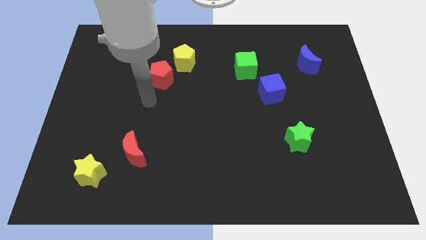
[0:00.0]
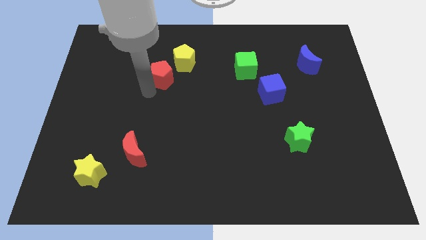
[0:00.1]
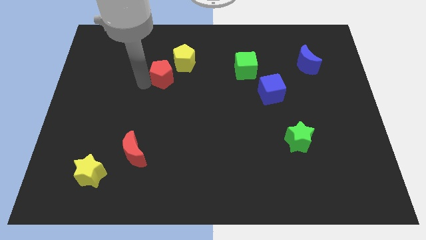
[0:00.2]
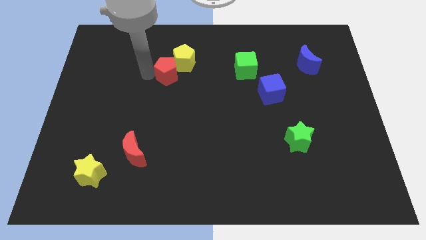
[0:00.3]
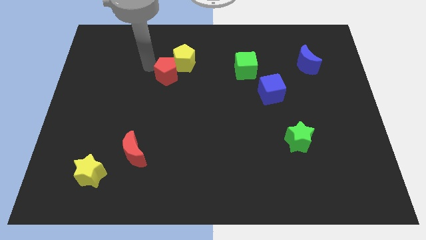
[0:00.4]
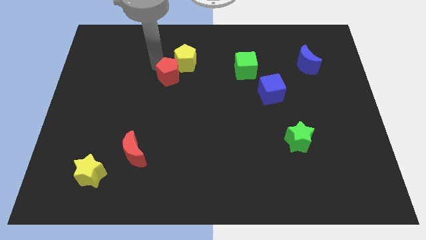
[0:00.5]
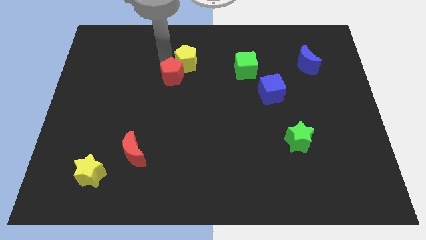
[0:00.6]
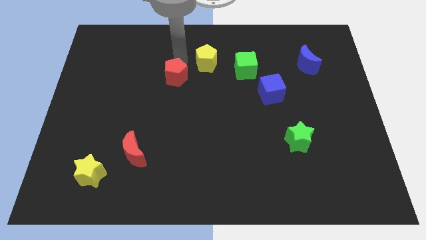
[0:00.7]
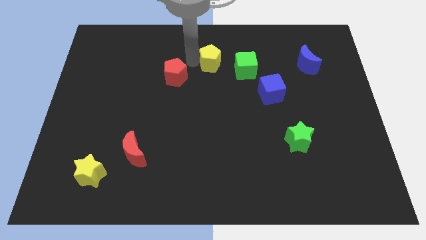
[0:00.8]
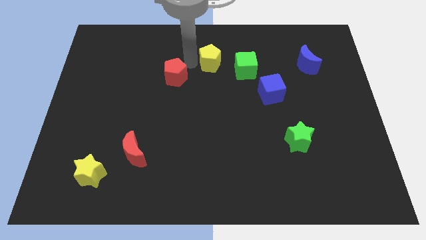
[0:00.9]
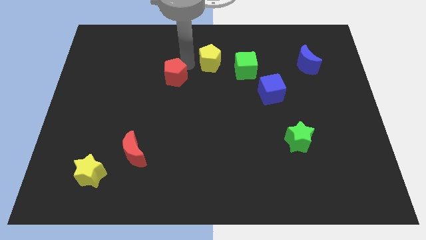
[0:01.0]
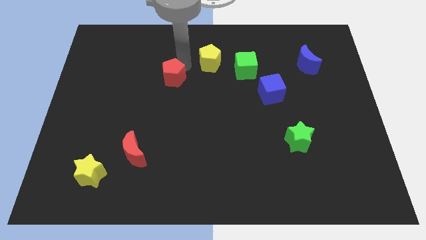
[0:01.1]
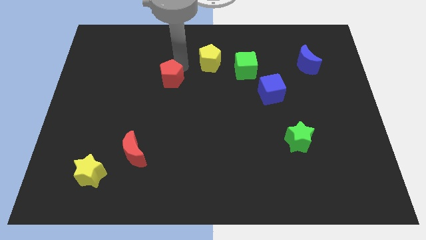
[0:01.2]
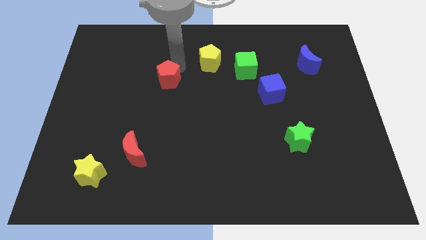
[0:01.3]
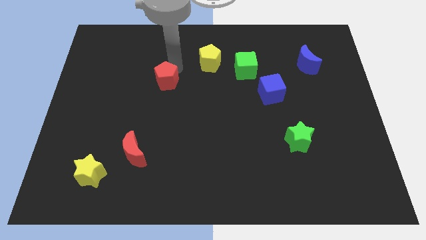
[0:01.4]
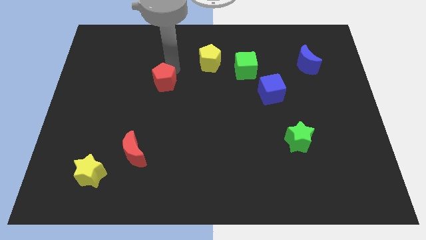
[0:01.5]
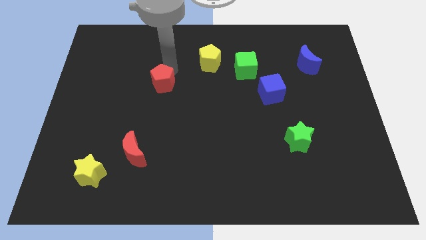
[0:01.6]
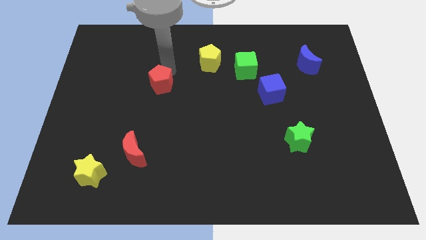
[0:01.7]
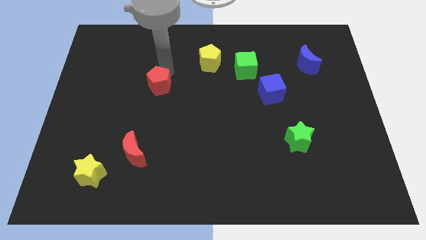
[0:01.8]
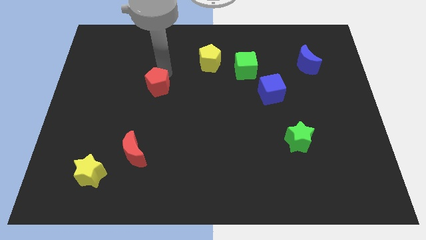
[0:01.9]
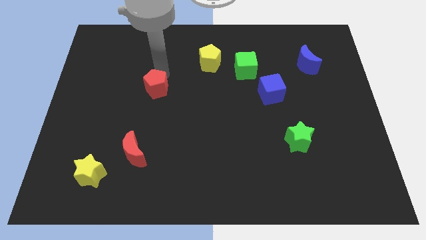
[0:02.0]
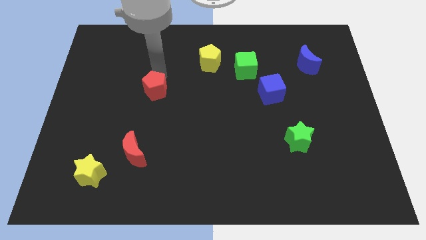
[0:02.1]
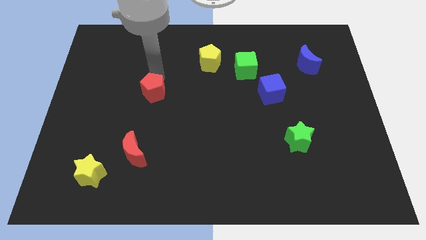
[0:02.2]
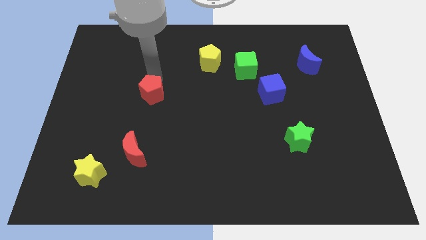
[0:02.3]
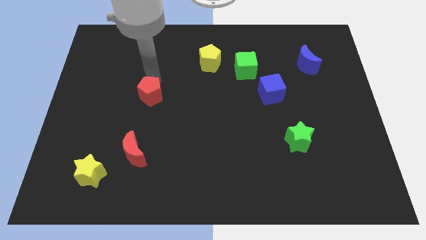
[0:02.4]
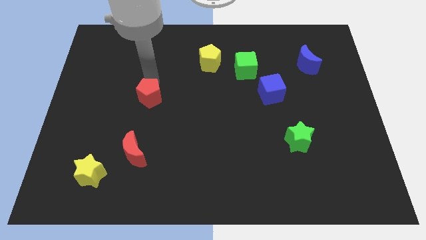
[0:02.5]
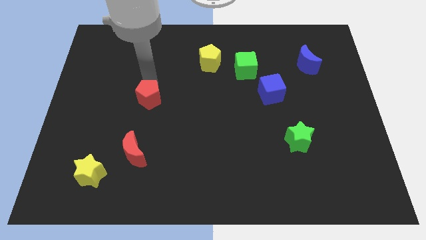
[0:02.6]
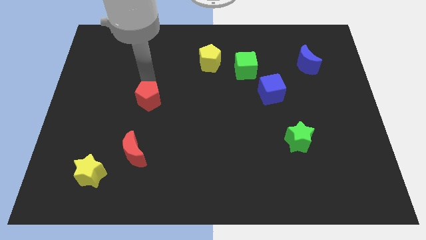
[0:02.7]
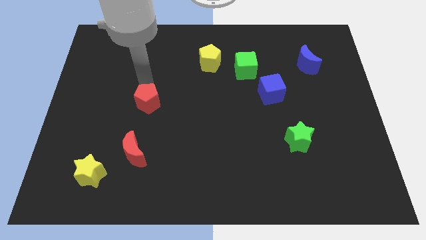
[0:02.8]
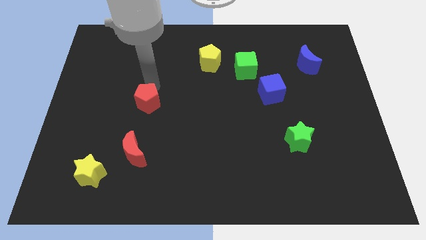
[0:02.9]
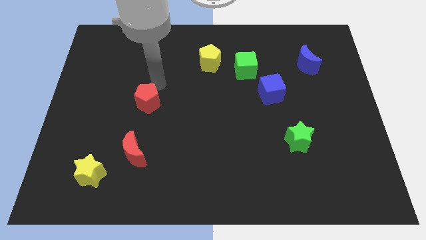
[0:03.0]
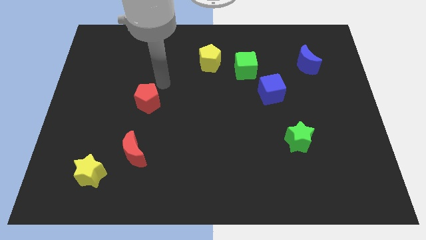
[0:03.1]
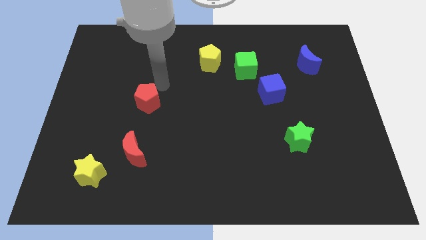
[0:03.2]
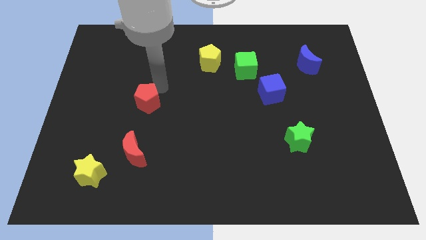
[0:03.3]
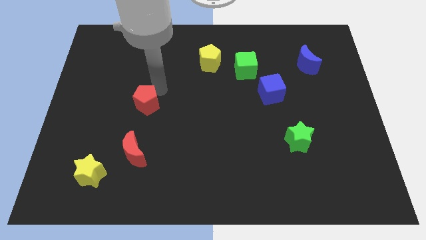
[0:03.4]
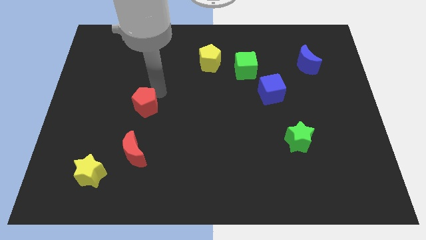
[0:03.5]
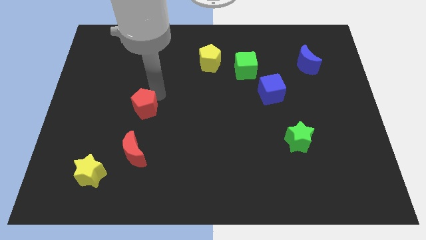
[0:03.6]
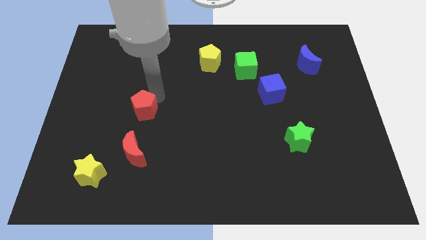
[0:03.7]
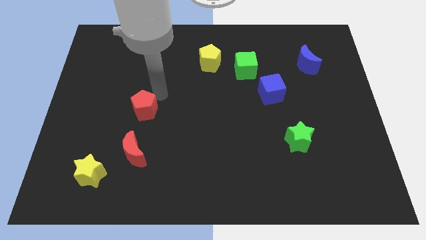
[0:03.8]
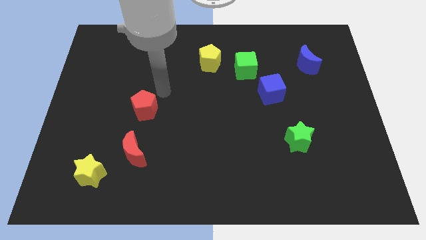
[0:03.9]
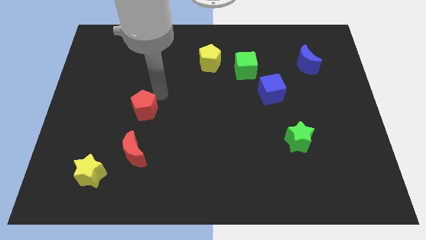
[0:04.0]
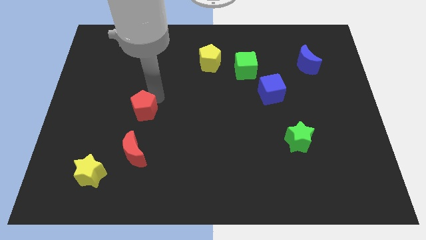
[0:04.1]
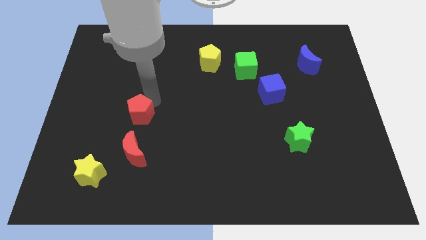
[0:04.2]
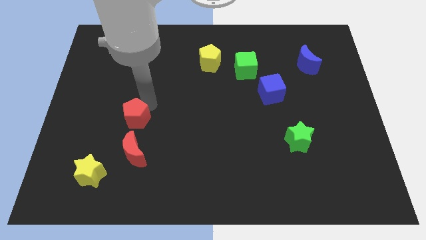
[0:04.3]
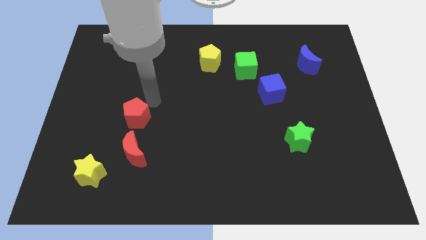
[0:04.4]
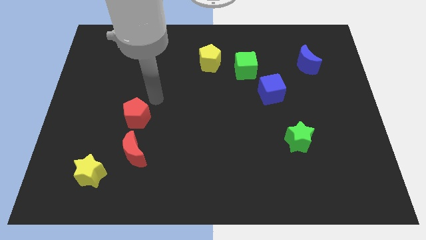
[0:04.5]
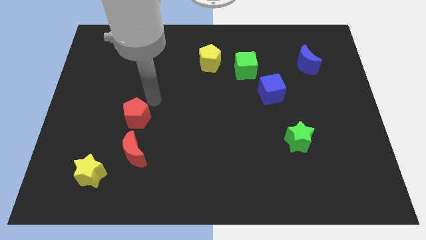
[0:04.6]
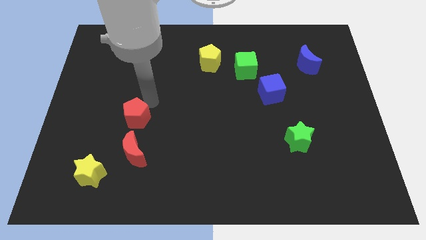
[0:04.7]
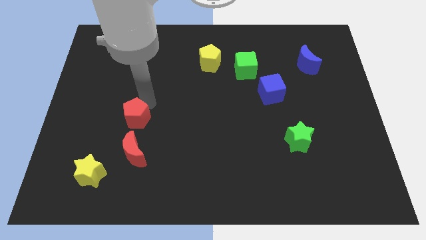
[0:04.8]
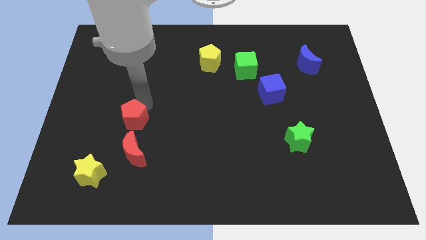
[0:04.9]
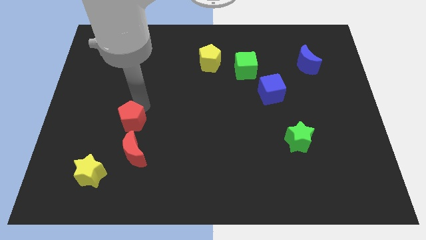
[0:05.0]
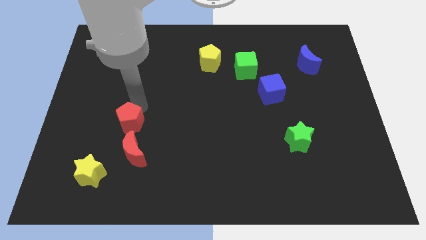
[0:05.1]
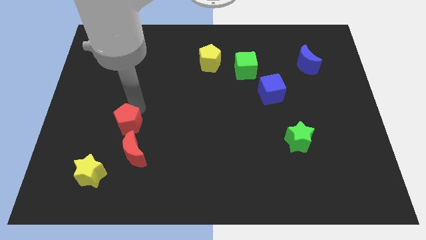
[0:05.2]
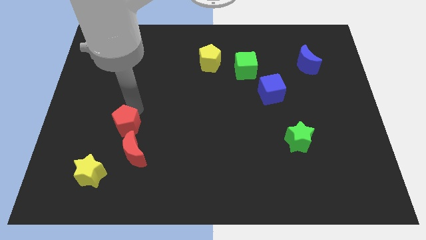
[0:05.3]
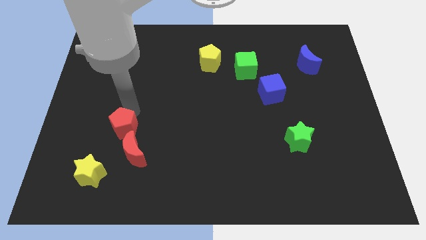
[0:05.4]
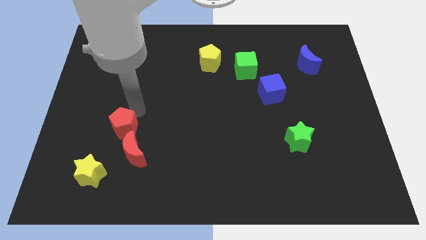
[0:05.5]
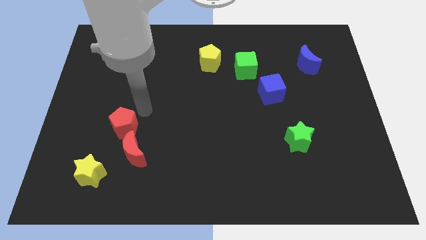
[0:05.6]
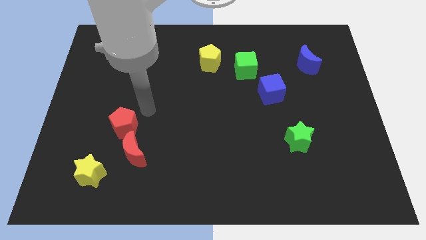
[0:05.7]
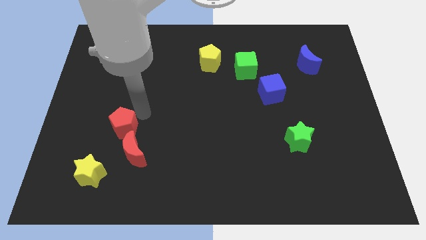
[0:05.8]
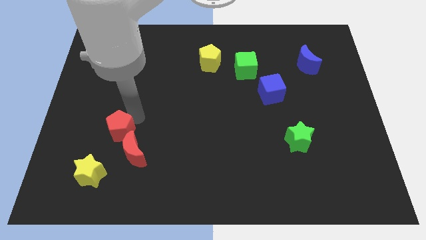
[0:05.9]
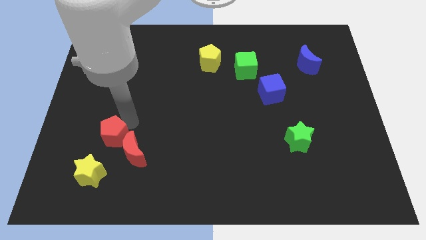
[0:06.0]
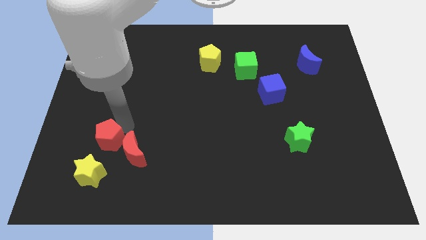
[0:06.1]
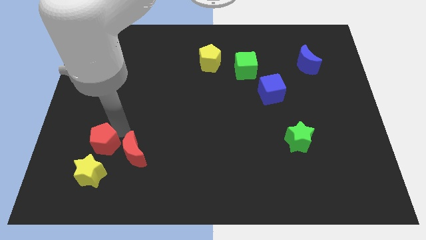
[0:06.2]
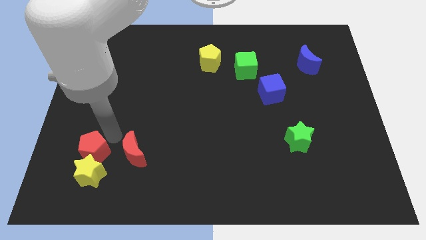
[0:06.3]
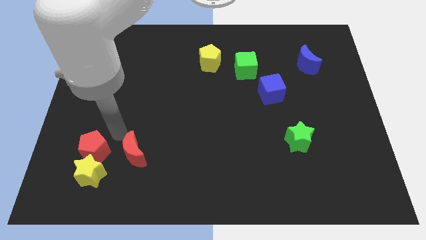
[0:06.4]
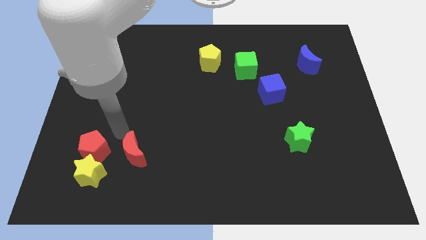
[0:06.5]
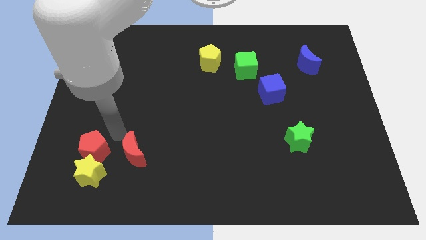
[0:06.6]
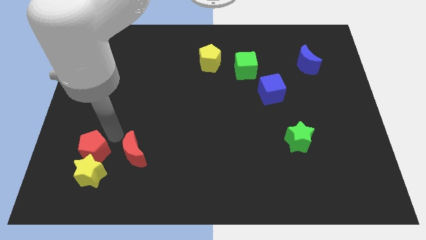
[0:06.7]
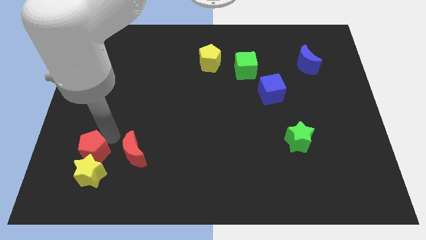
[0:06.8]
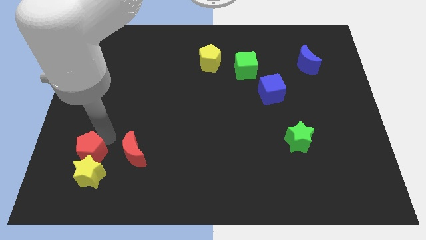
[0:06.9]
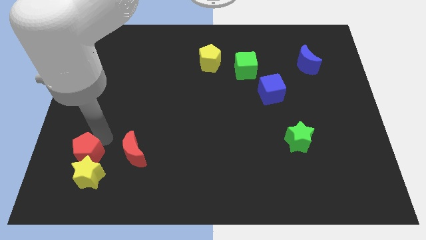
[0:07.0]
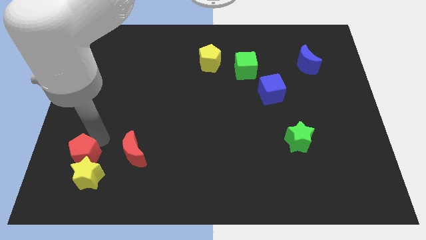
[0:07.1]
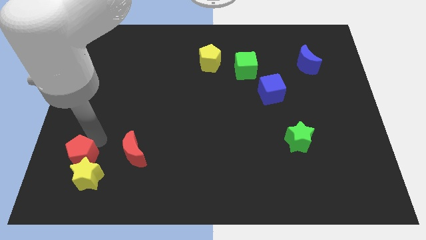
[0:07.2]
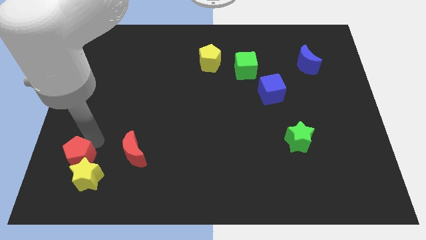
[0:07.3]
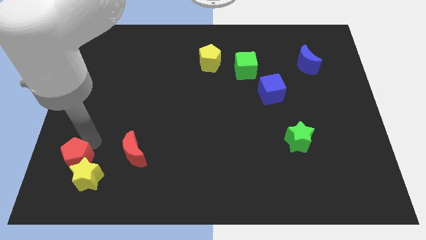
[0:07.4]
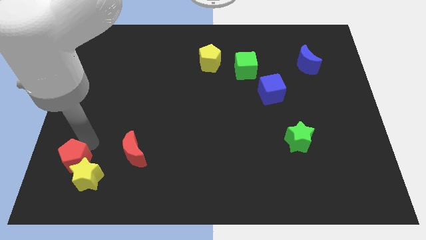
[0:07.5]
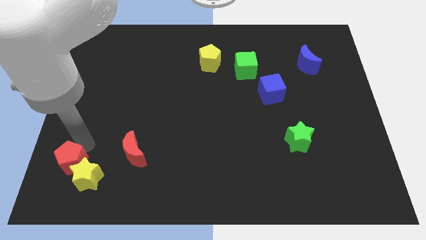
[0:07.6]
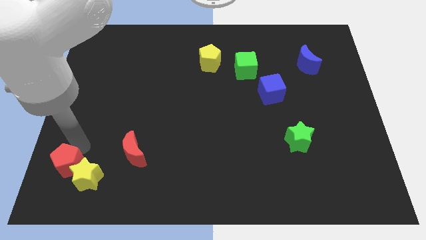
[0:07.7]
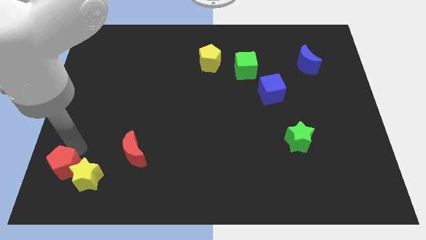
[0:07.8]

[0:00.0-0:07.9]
put the red pentagon to the bottom left
